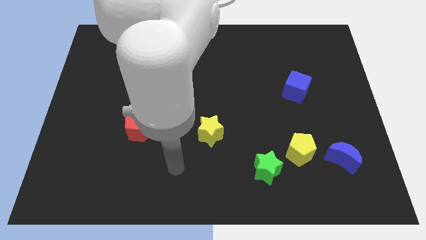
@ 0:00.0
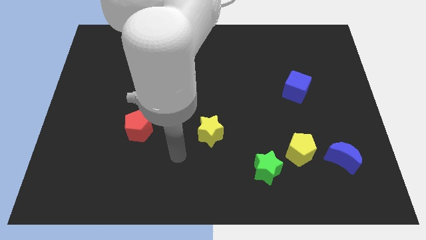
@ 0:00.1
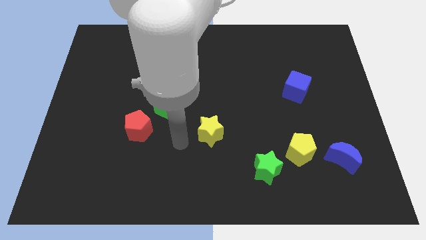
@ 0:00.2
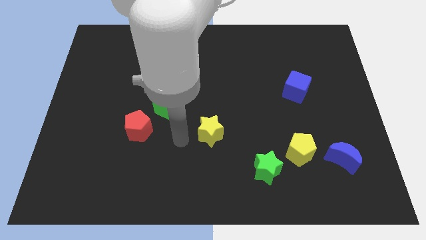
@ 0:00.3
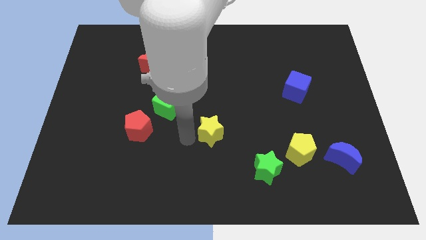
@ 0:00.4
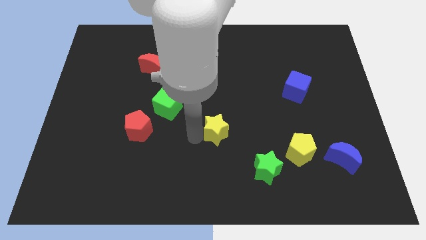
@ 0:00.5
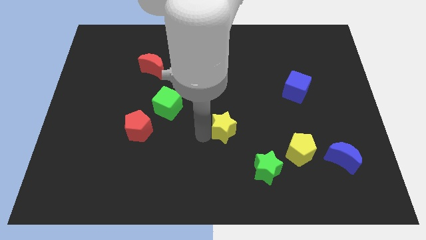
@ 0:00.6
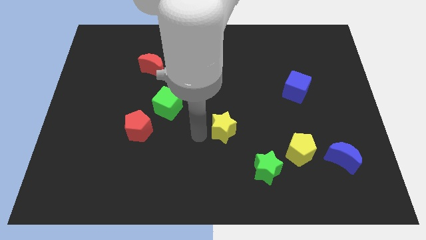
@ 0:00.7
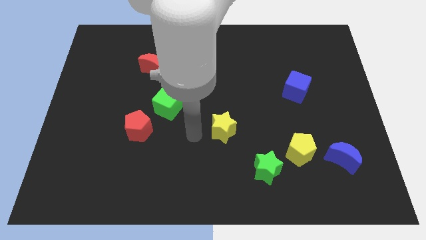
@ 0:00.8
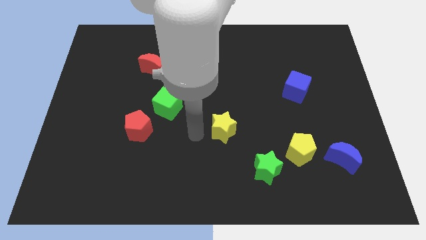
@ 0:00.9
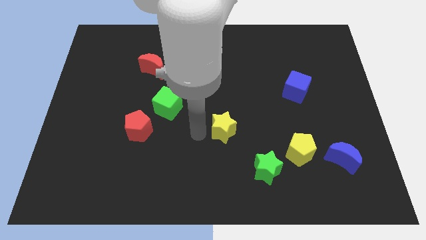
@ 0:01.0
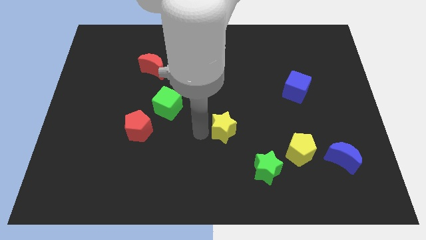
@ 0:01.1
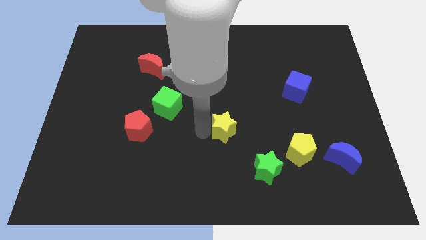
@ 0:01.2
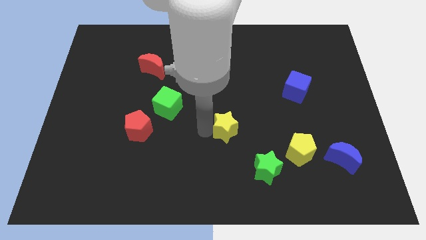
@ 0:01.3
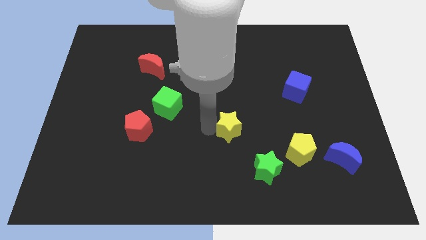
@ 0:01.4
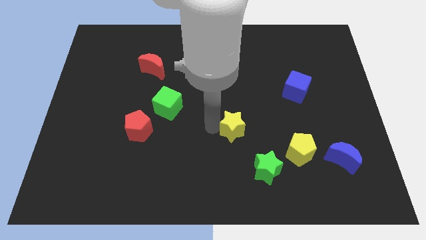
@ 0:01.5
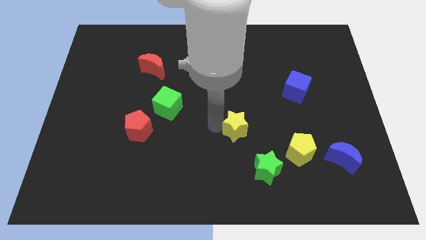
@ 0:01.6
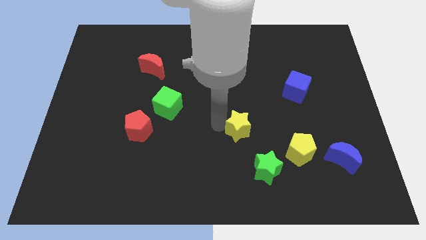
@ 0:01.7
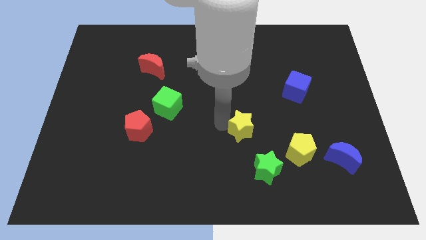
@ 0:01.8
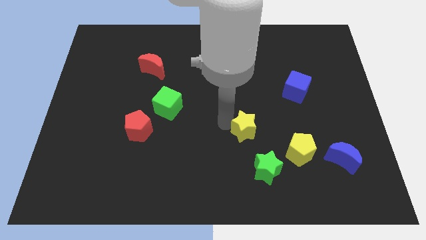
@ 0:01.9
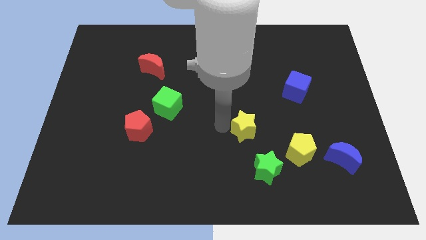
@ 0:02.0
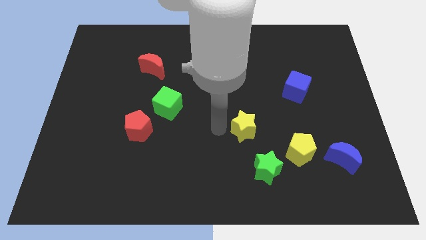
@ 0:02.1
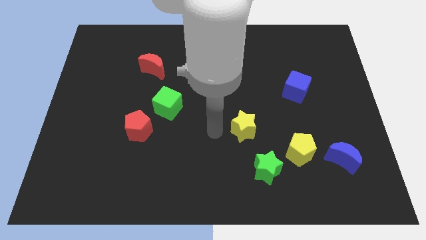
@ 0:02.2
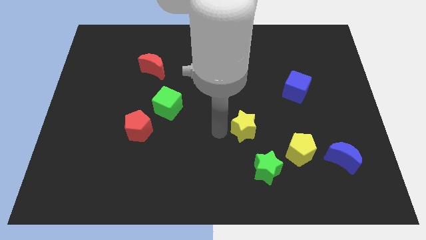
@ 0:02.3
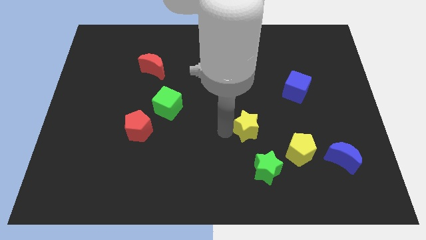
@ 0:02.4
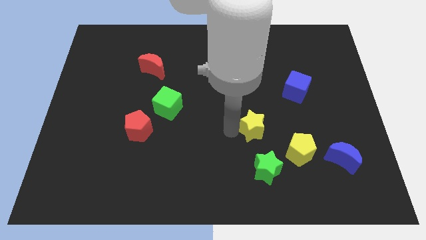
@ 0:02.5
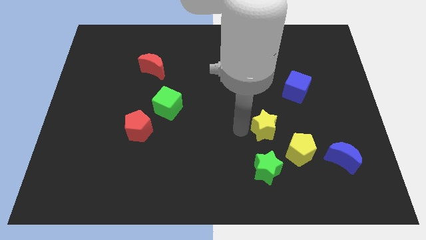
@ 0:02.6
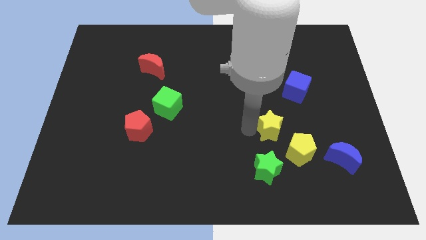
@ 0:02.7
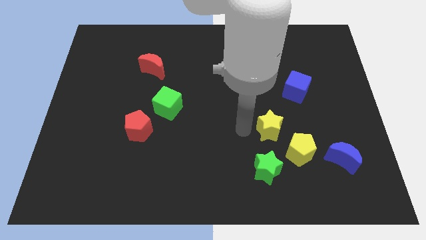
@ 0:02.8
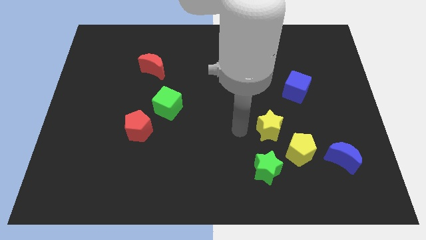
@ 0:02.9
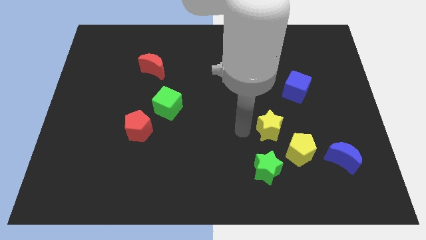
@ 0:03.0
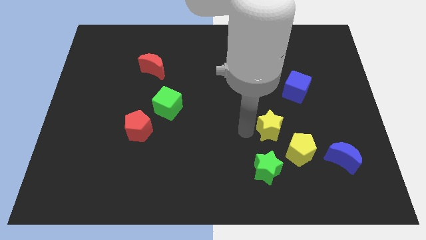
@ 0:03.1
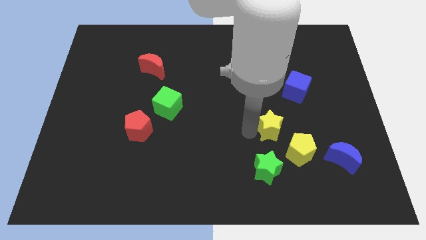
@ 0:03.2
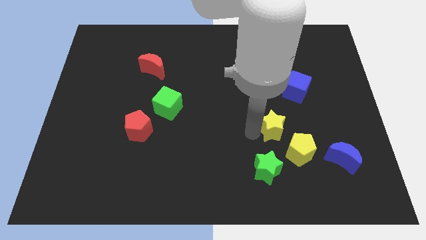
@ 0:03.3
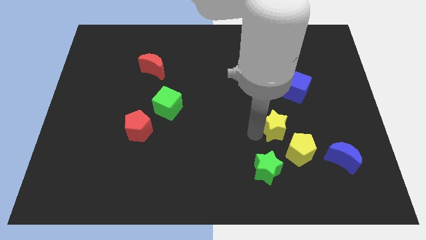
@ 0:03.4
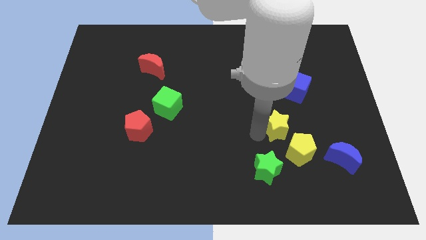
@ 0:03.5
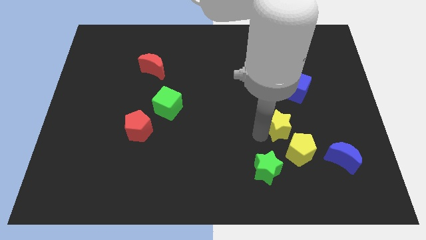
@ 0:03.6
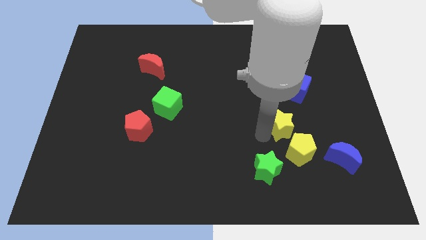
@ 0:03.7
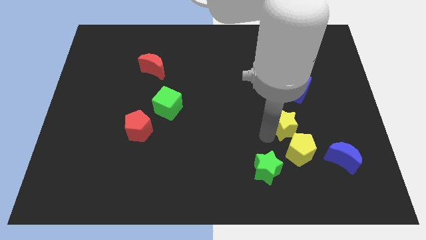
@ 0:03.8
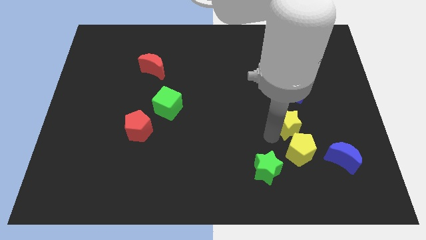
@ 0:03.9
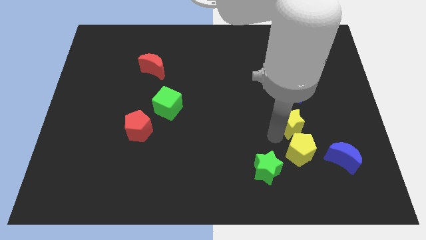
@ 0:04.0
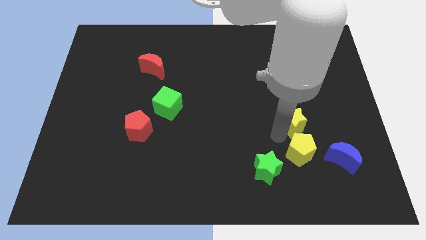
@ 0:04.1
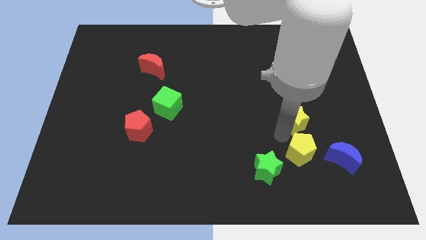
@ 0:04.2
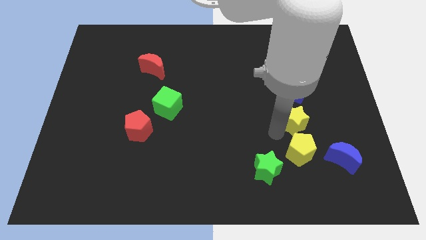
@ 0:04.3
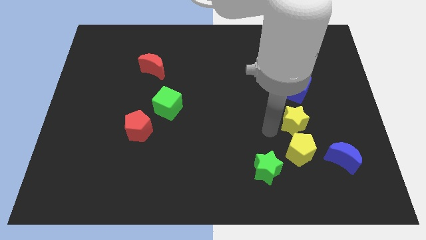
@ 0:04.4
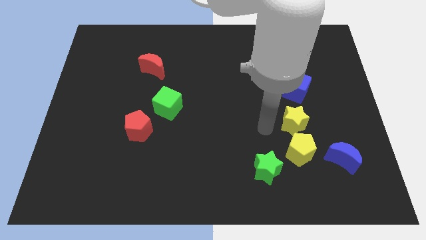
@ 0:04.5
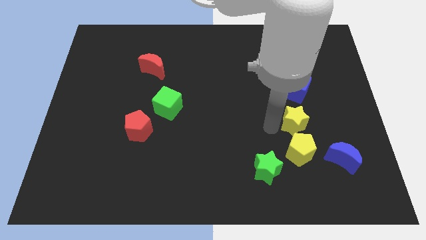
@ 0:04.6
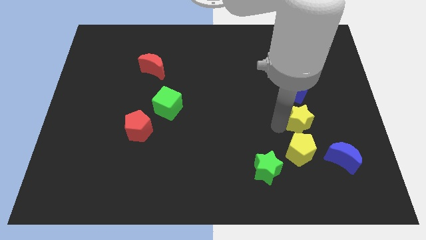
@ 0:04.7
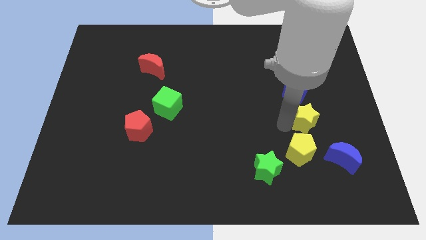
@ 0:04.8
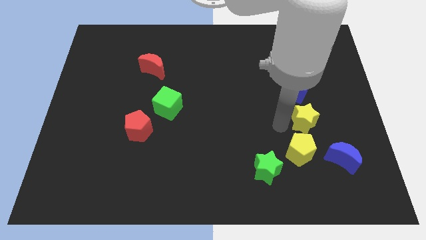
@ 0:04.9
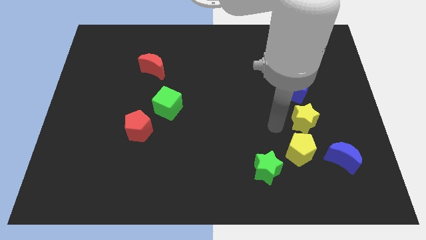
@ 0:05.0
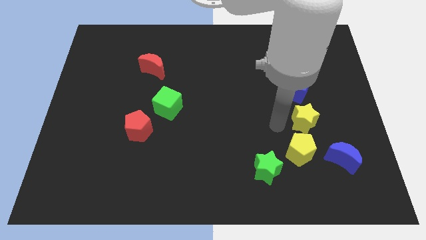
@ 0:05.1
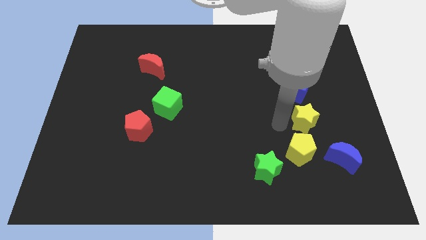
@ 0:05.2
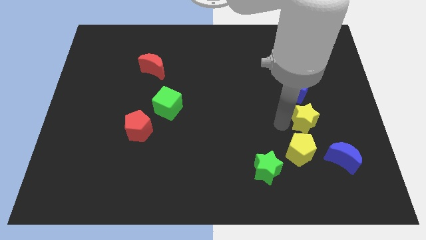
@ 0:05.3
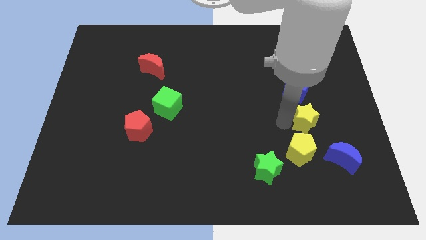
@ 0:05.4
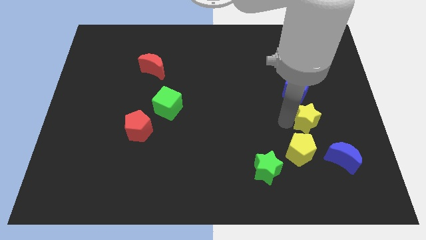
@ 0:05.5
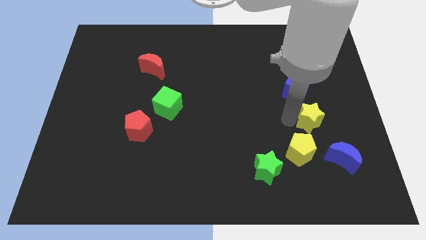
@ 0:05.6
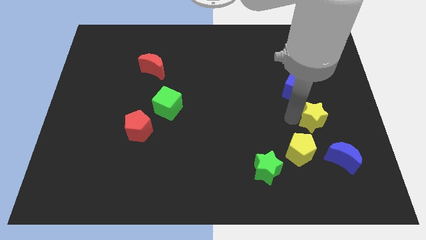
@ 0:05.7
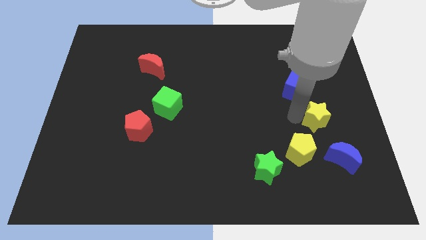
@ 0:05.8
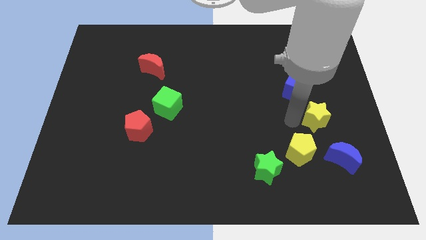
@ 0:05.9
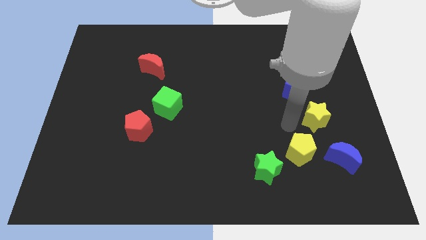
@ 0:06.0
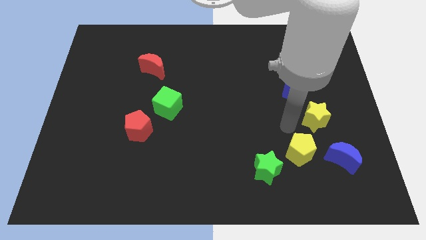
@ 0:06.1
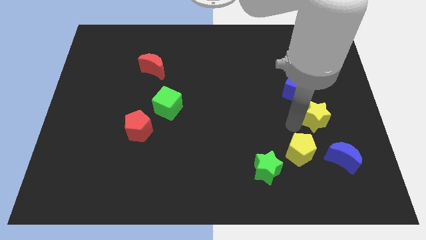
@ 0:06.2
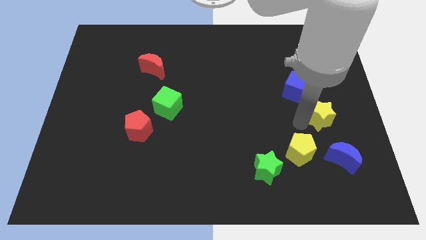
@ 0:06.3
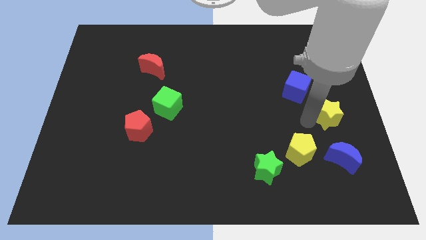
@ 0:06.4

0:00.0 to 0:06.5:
slide the yellow star to the right side of the board
